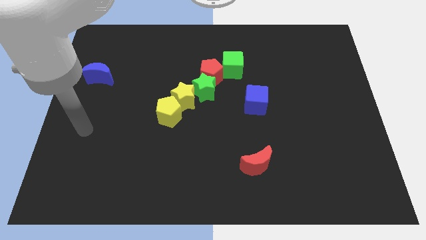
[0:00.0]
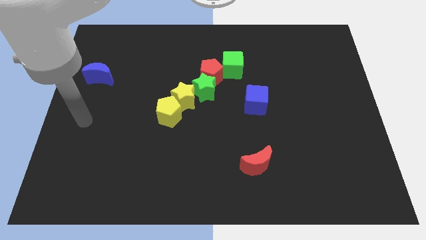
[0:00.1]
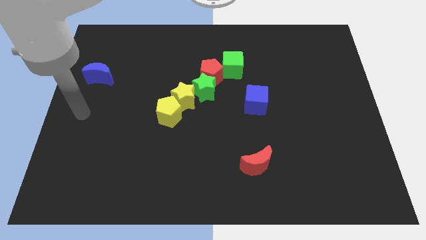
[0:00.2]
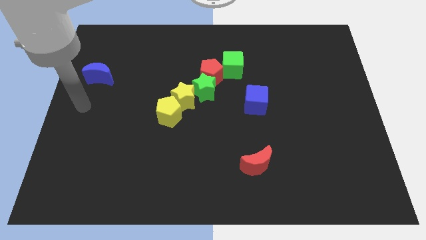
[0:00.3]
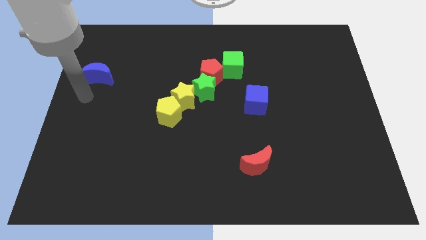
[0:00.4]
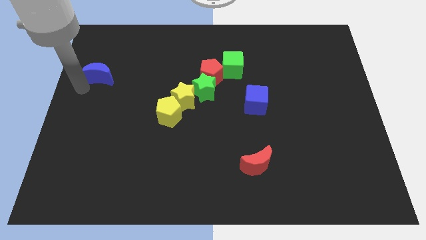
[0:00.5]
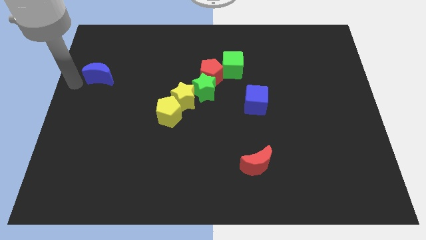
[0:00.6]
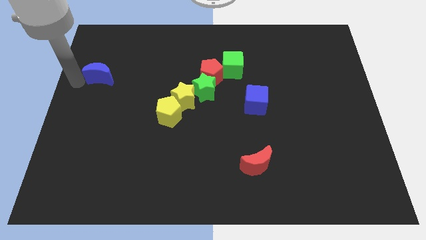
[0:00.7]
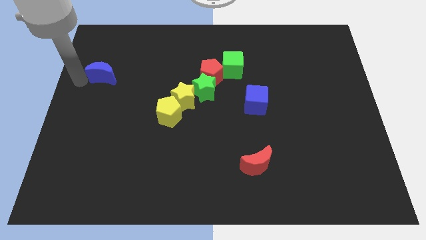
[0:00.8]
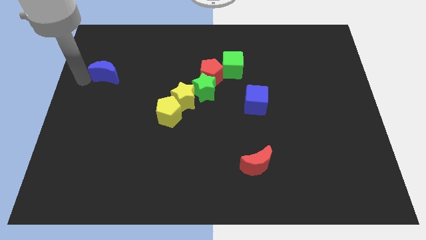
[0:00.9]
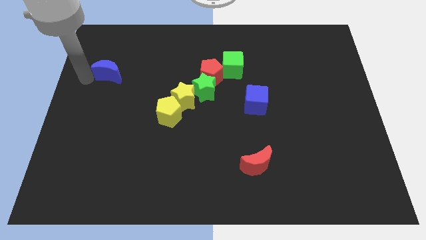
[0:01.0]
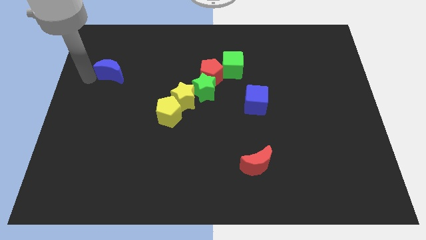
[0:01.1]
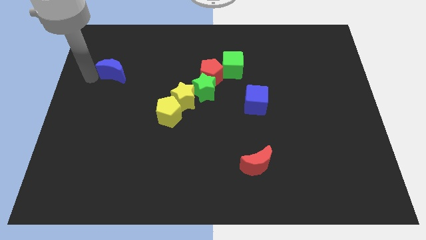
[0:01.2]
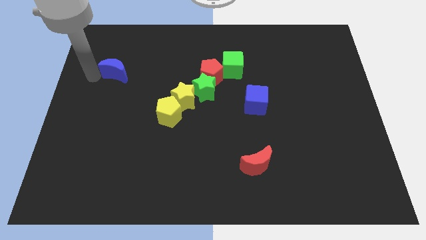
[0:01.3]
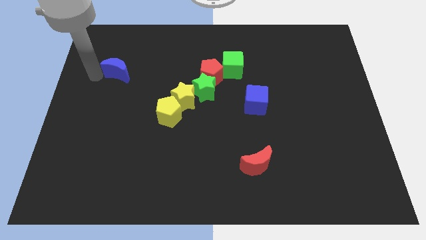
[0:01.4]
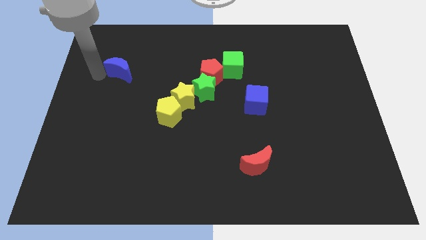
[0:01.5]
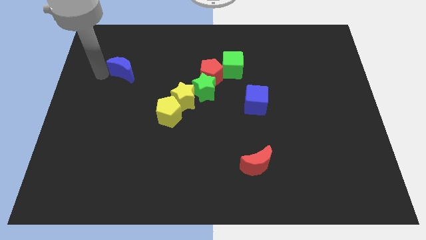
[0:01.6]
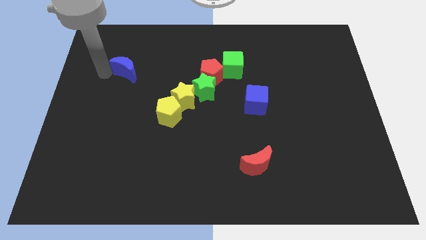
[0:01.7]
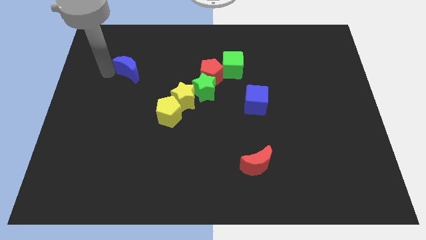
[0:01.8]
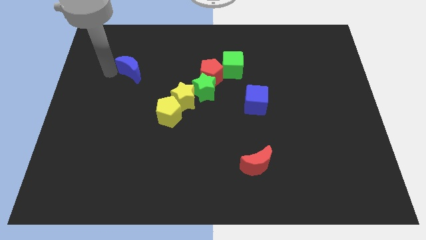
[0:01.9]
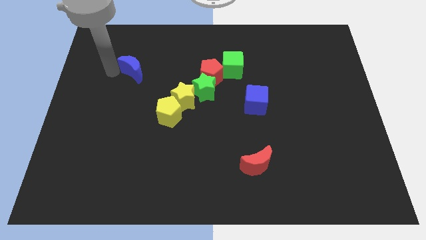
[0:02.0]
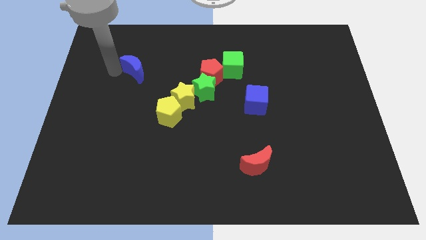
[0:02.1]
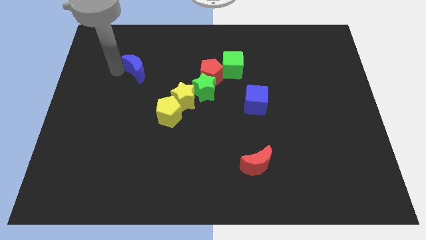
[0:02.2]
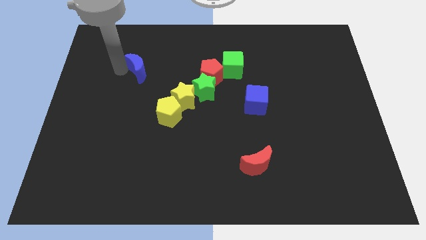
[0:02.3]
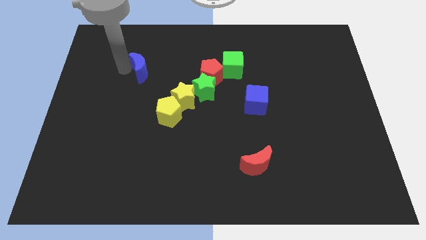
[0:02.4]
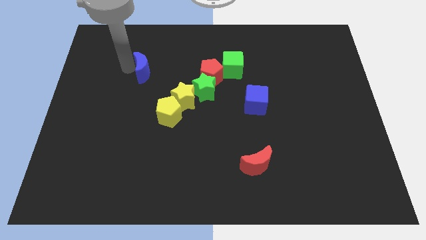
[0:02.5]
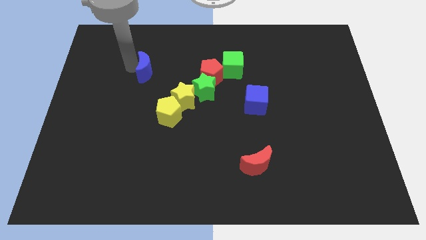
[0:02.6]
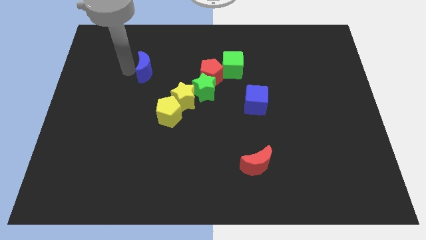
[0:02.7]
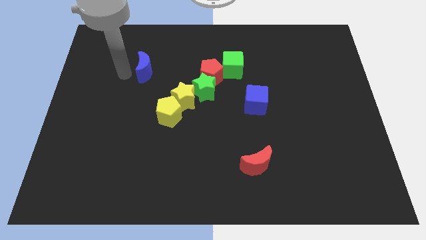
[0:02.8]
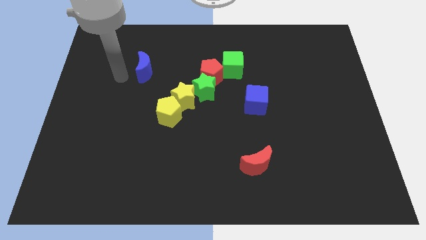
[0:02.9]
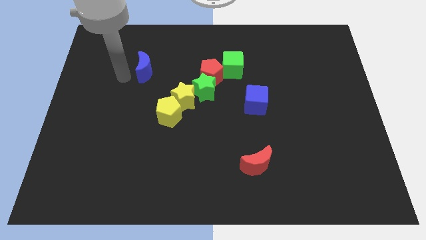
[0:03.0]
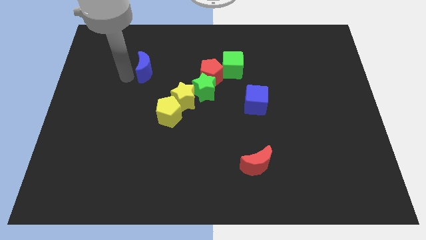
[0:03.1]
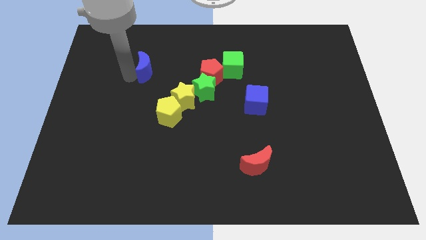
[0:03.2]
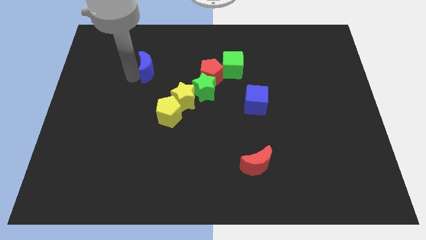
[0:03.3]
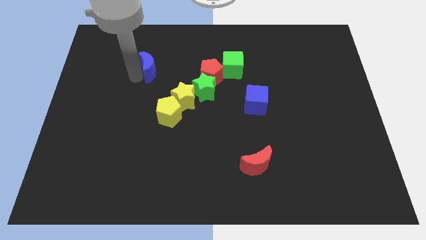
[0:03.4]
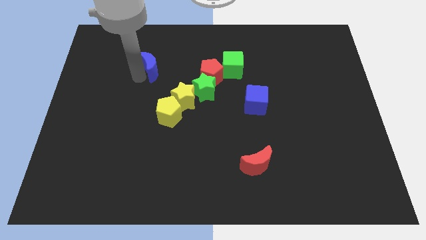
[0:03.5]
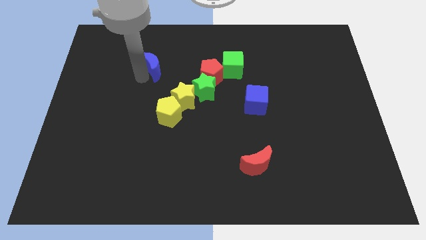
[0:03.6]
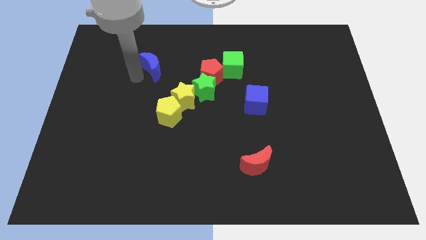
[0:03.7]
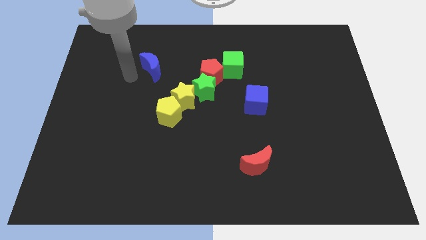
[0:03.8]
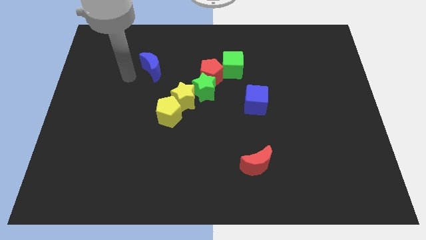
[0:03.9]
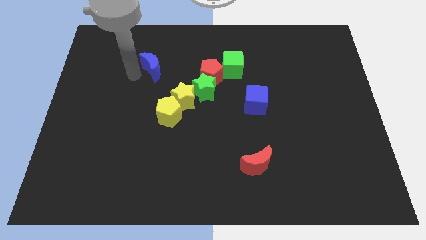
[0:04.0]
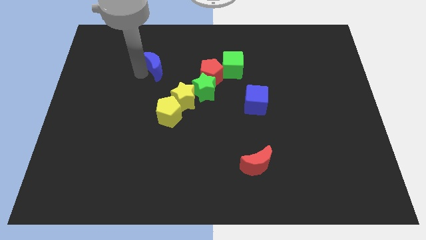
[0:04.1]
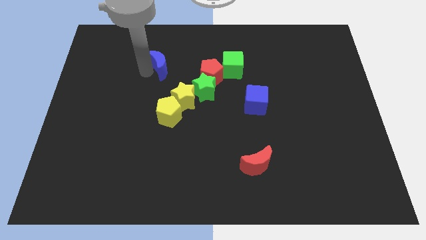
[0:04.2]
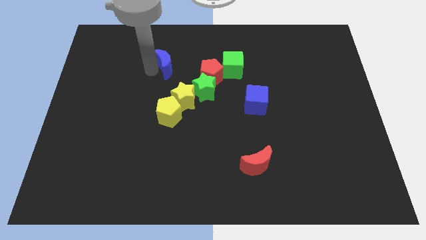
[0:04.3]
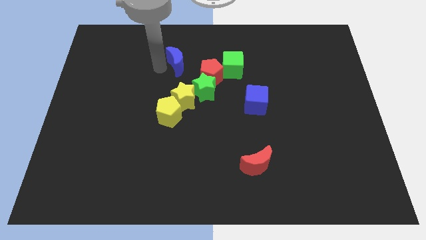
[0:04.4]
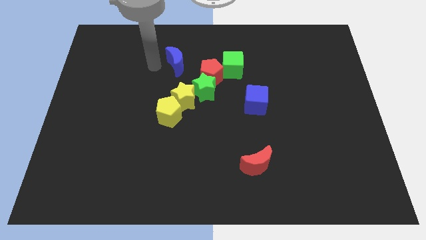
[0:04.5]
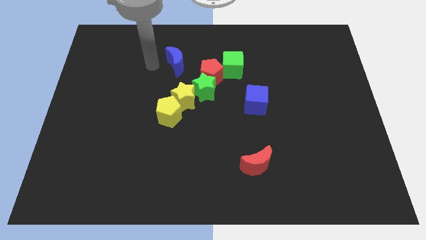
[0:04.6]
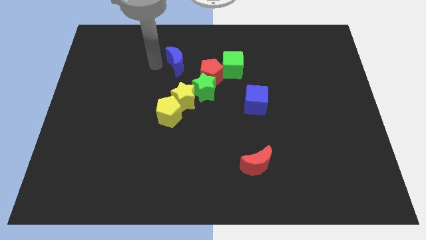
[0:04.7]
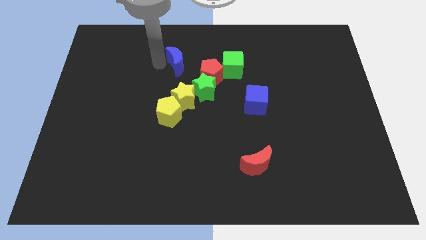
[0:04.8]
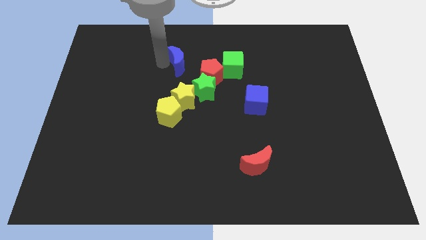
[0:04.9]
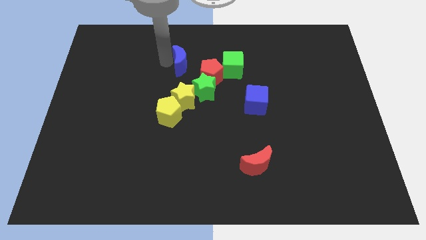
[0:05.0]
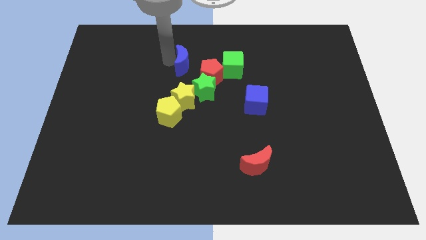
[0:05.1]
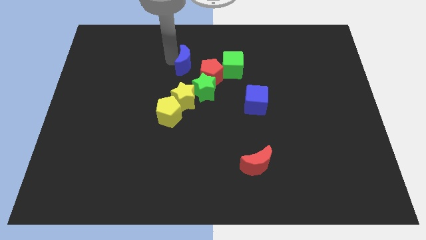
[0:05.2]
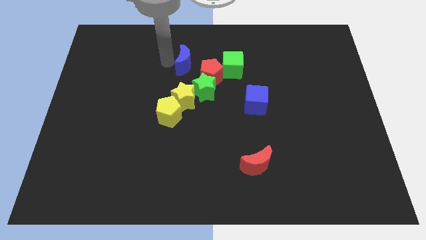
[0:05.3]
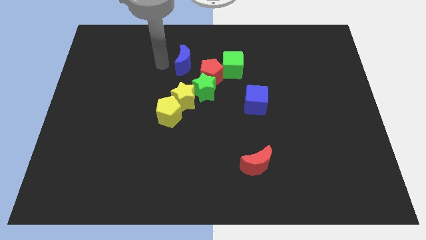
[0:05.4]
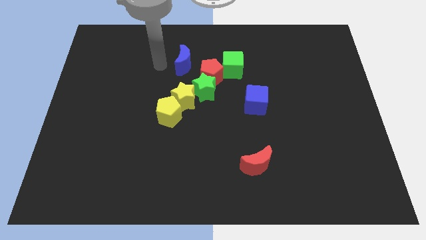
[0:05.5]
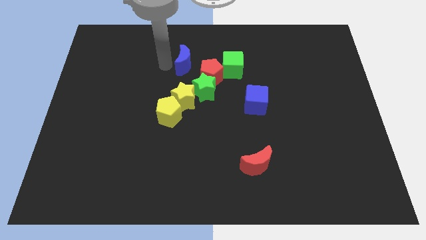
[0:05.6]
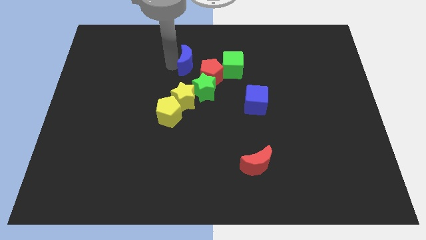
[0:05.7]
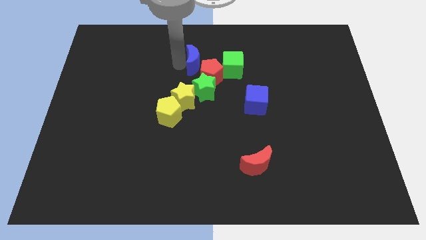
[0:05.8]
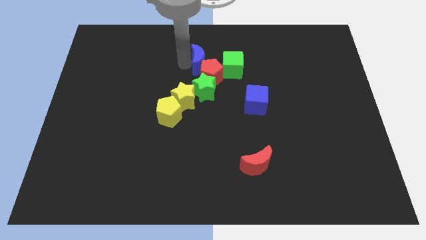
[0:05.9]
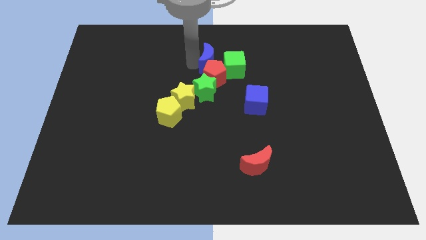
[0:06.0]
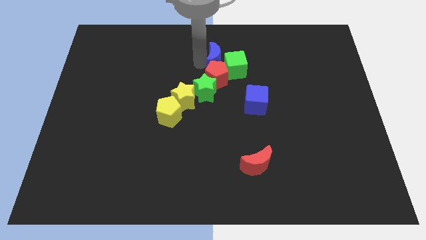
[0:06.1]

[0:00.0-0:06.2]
slide the blue moon to the green cube

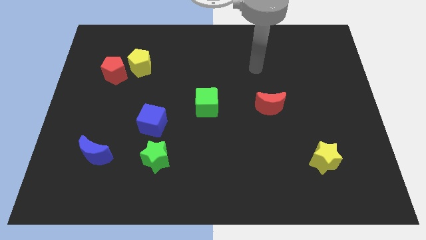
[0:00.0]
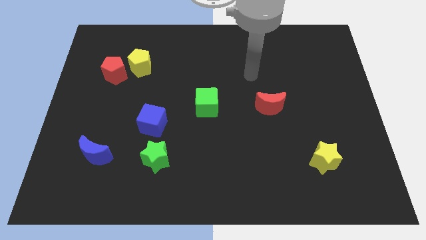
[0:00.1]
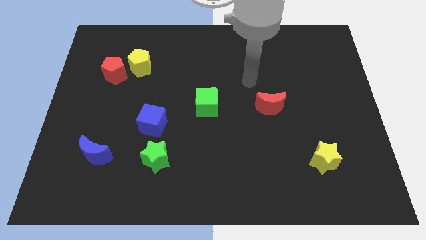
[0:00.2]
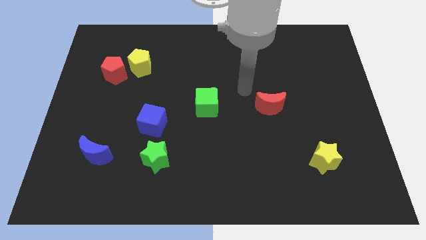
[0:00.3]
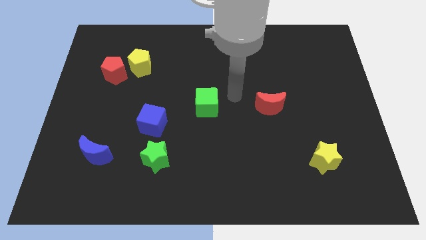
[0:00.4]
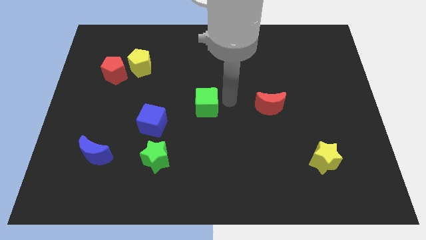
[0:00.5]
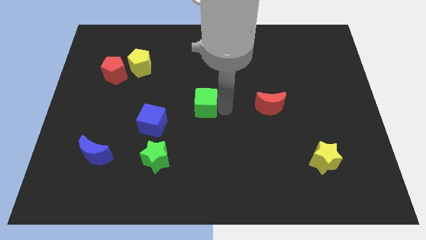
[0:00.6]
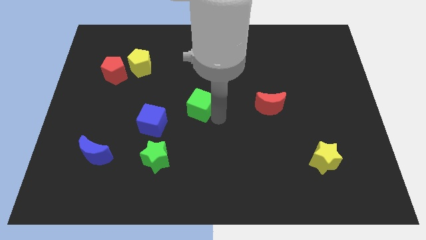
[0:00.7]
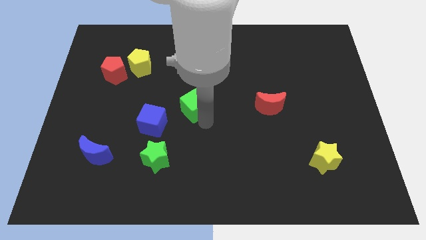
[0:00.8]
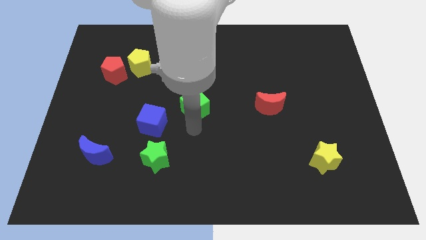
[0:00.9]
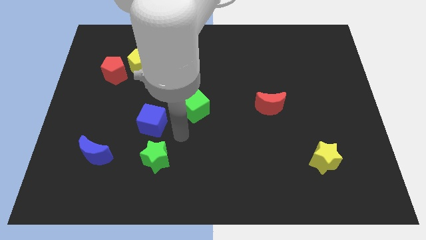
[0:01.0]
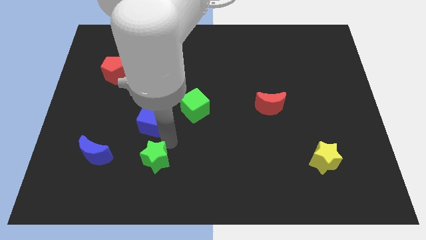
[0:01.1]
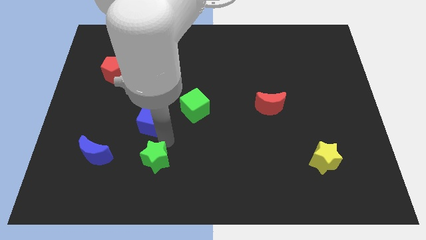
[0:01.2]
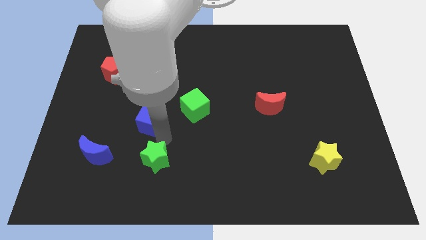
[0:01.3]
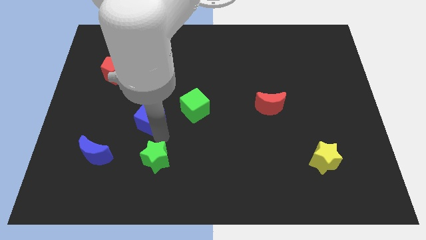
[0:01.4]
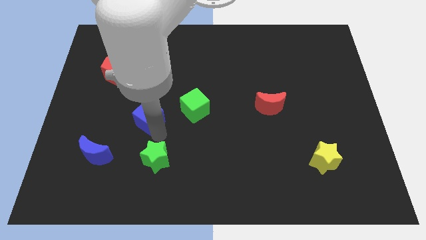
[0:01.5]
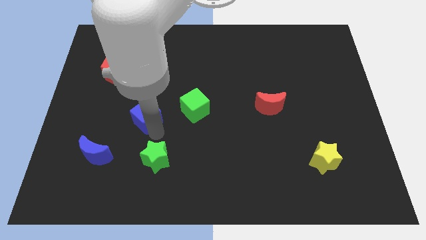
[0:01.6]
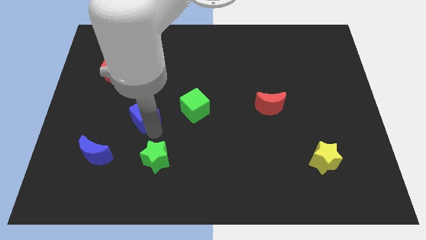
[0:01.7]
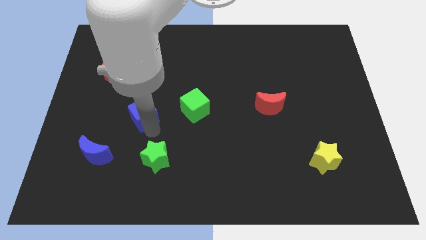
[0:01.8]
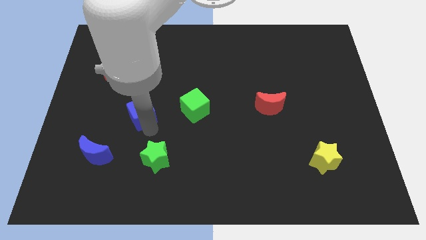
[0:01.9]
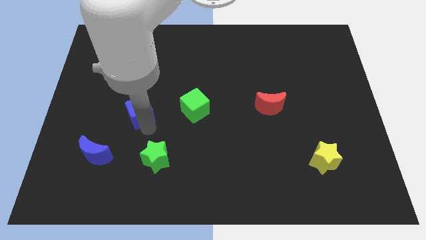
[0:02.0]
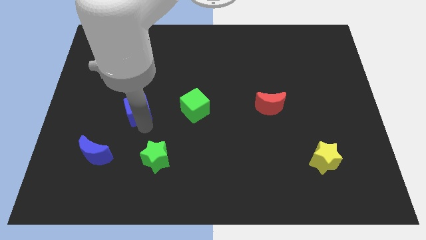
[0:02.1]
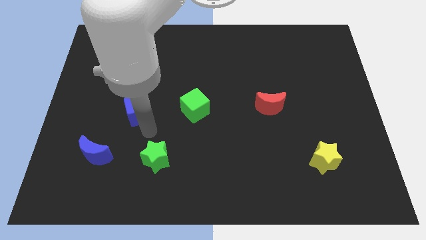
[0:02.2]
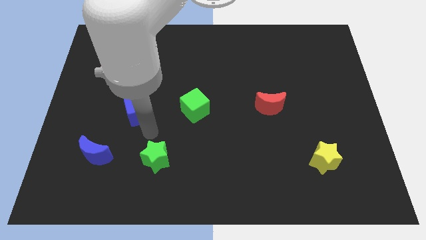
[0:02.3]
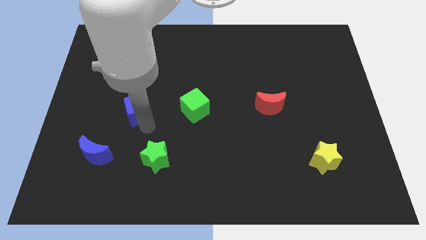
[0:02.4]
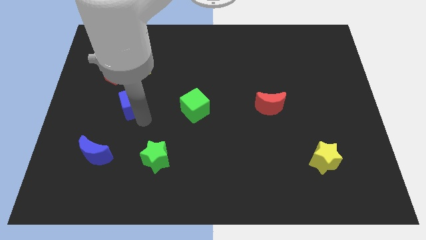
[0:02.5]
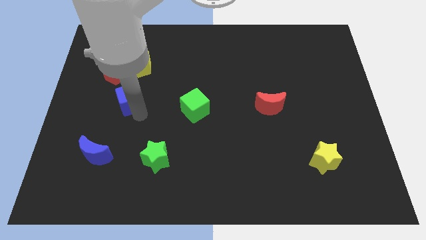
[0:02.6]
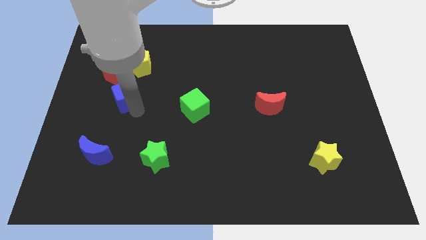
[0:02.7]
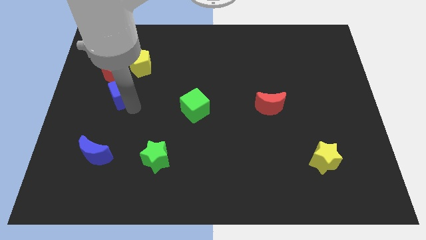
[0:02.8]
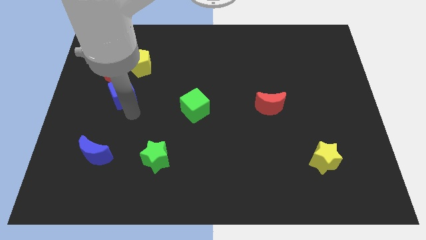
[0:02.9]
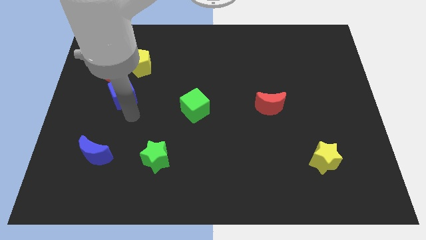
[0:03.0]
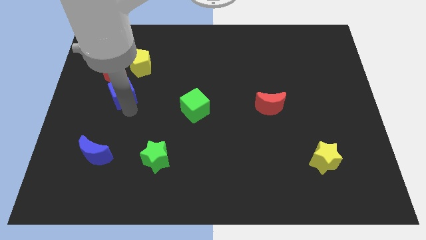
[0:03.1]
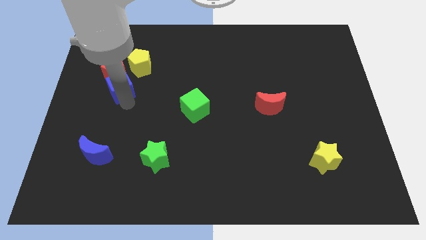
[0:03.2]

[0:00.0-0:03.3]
push the blue cube close to the red pentagon
